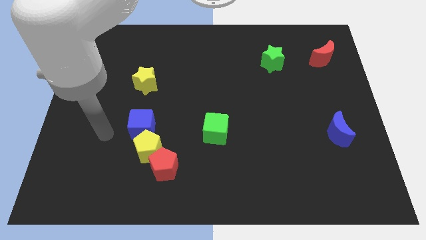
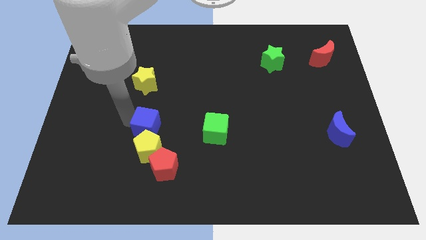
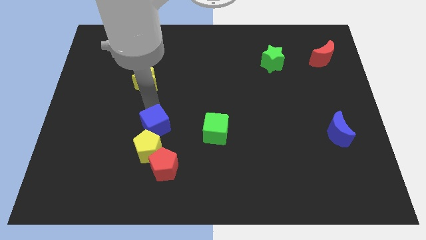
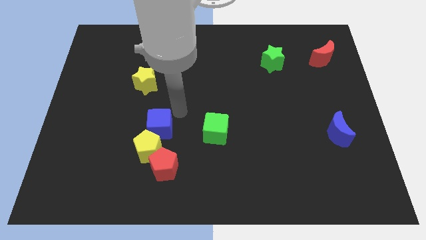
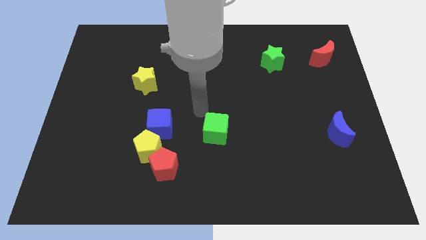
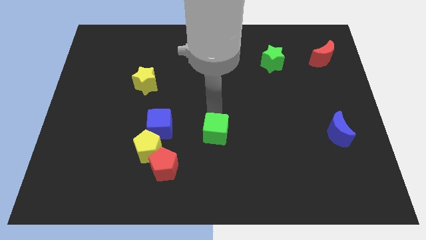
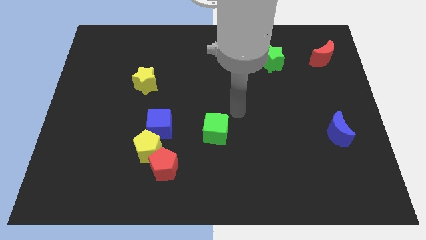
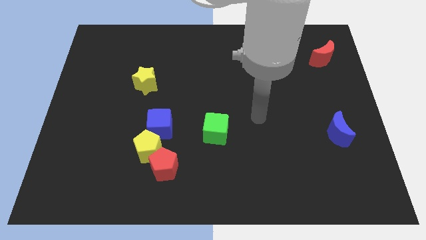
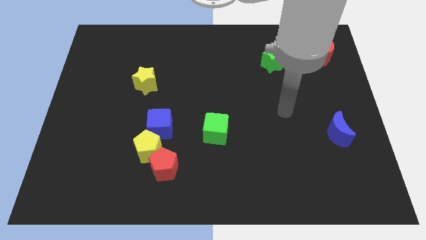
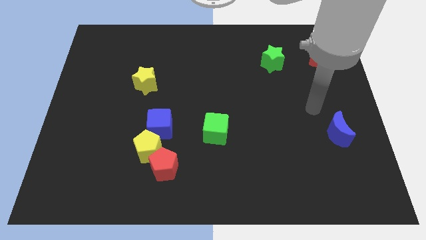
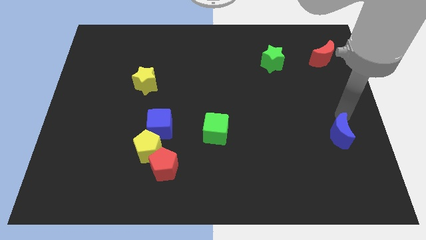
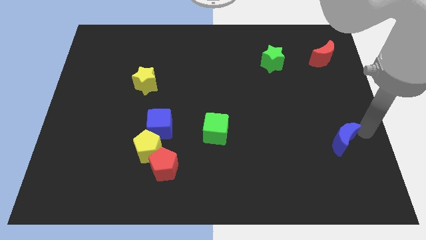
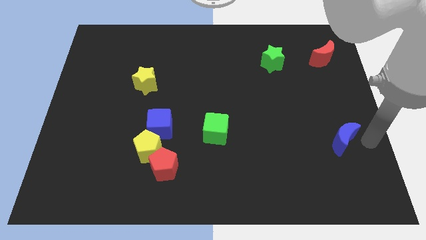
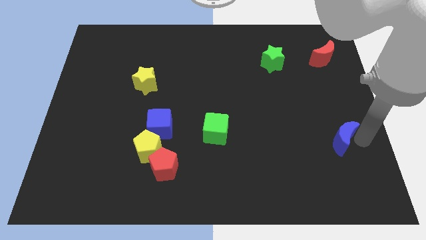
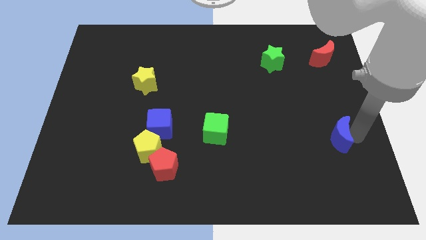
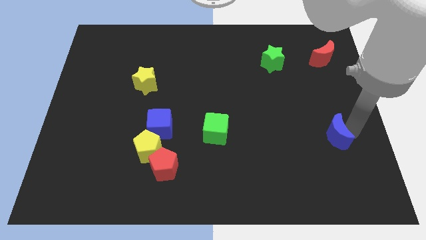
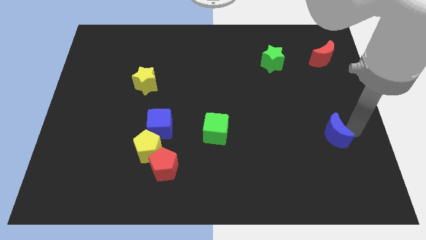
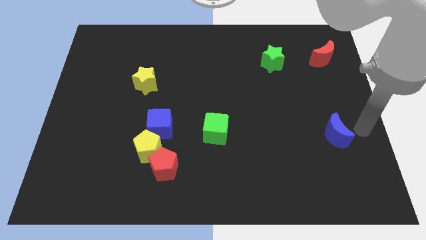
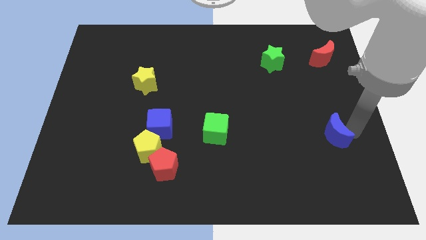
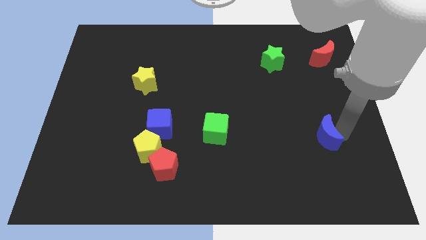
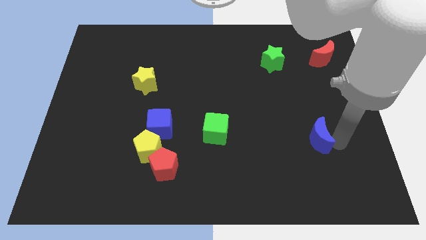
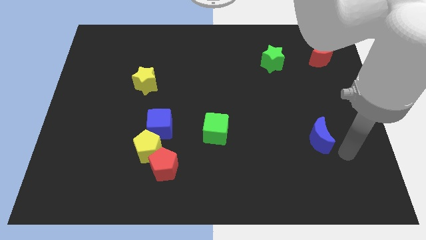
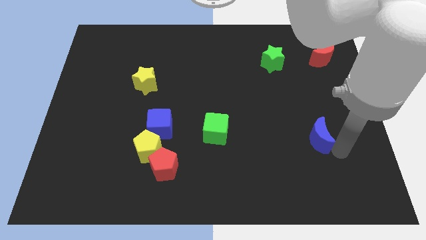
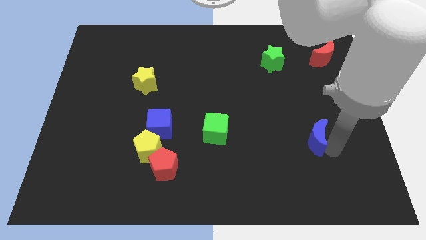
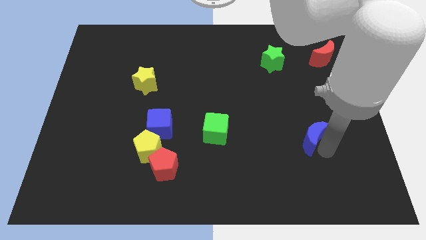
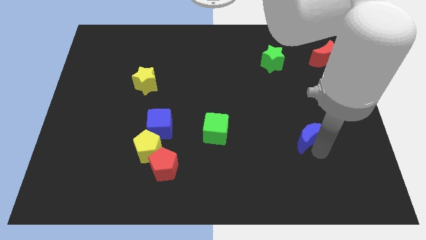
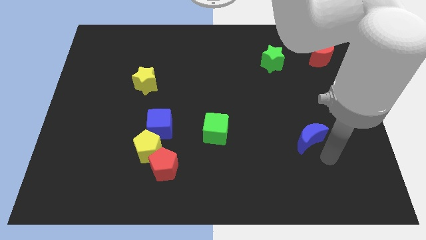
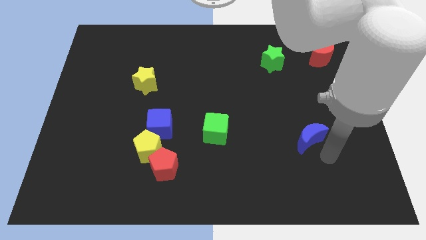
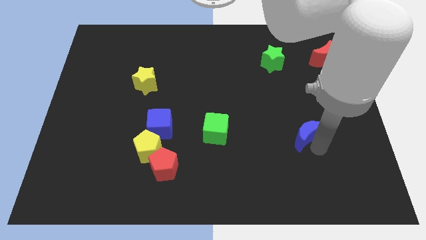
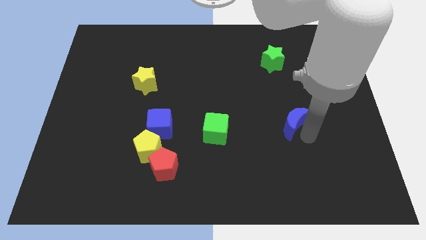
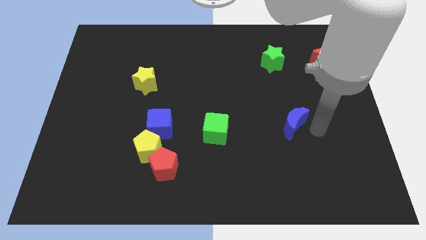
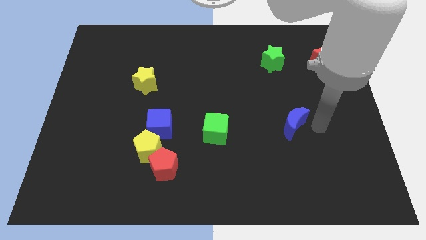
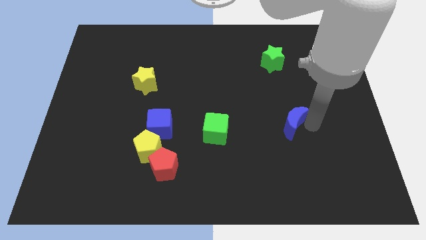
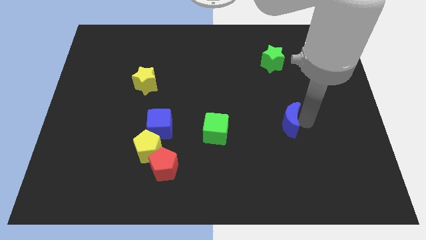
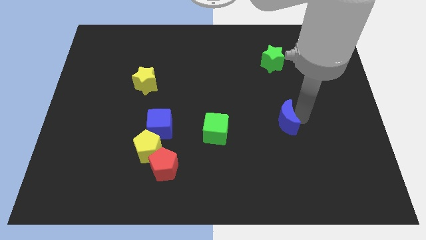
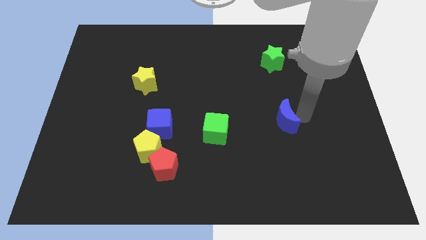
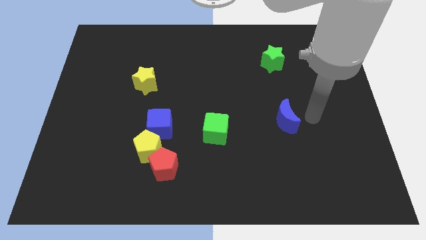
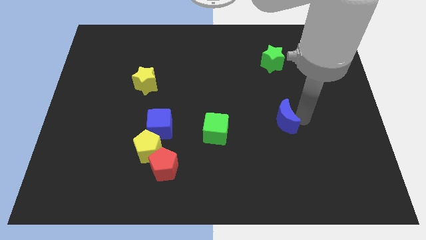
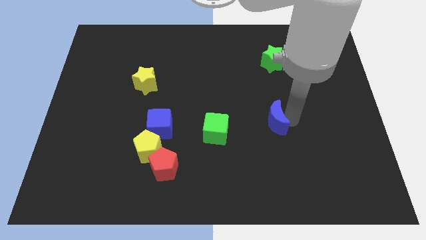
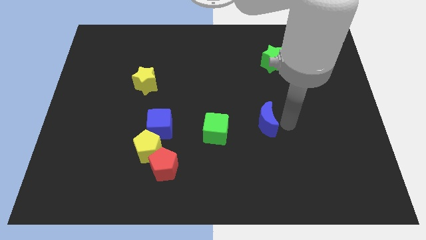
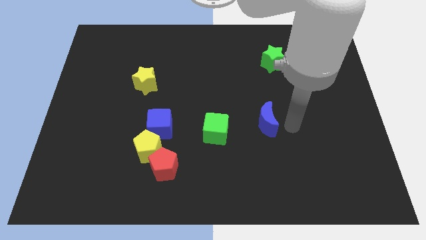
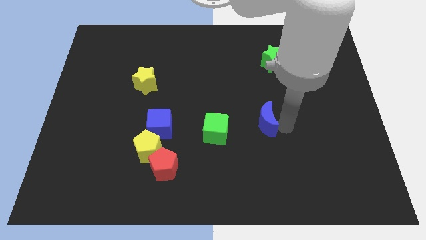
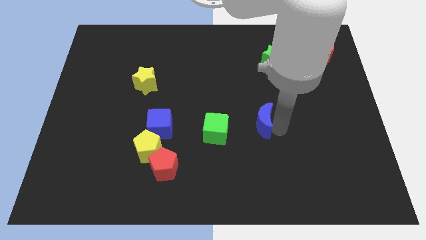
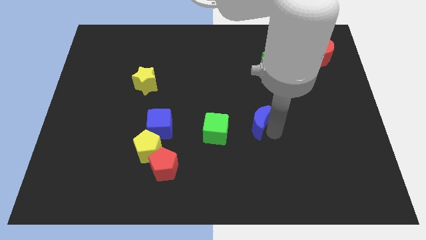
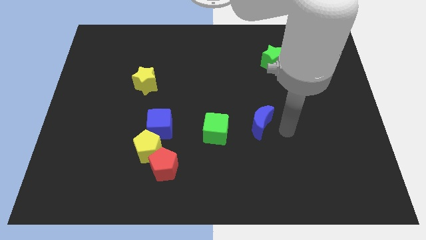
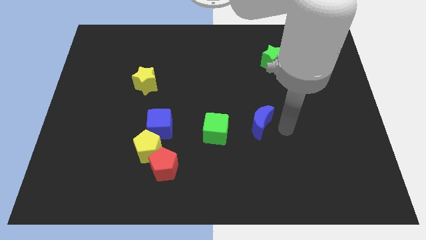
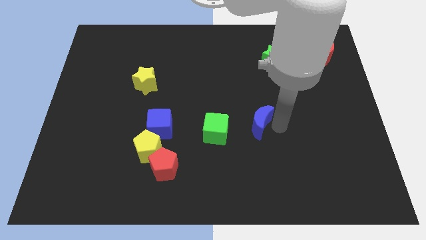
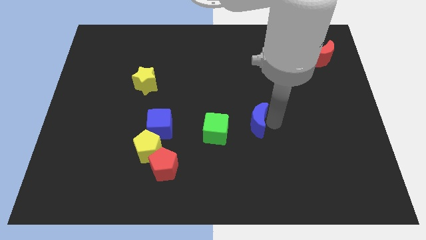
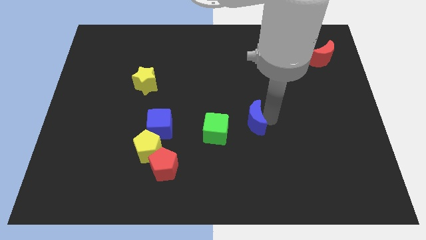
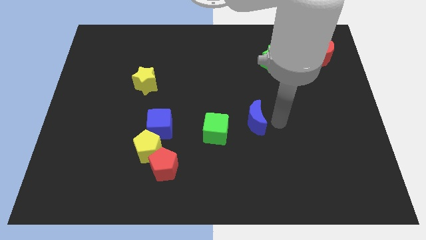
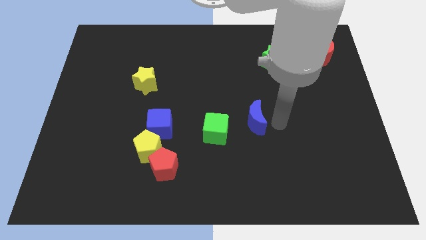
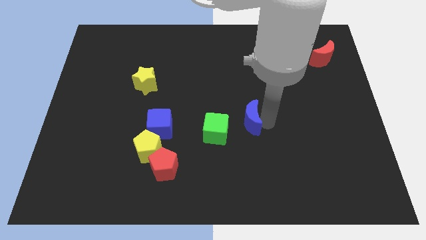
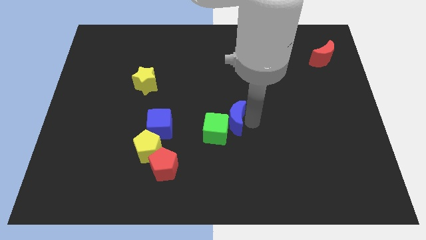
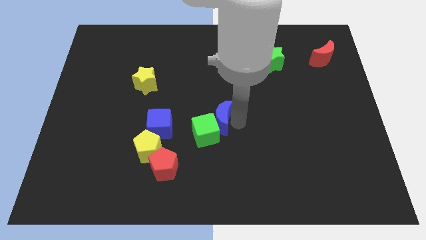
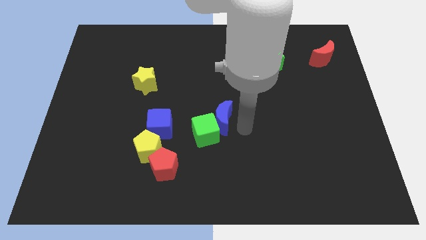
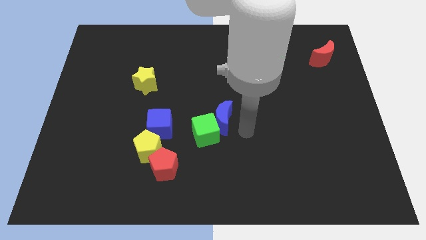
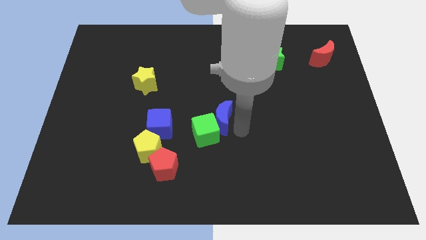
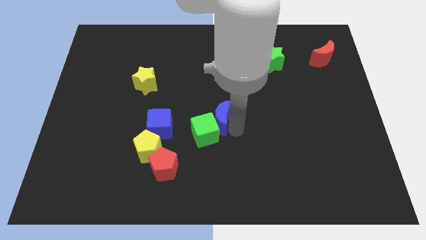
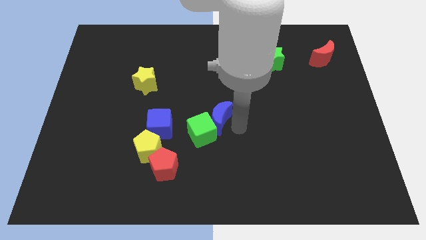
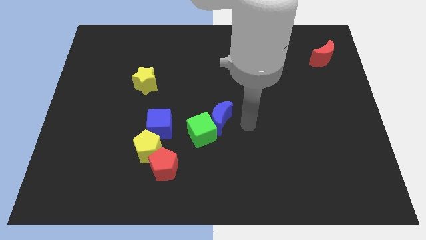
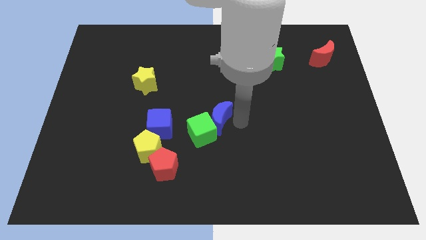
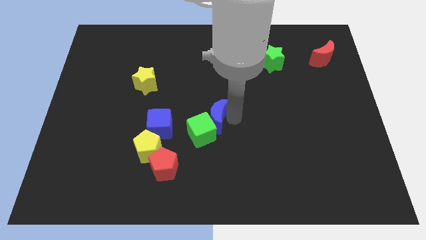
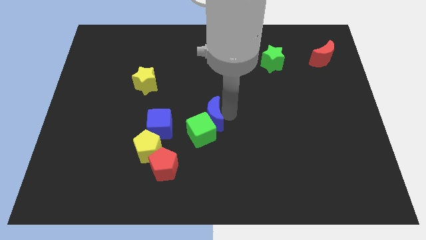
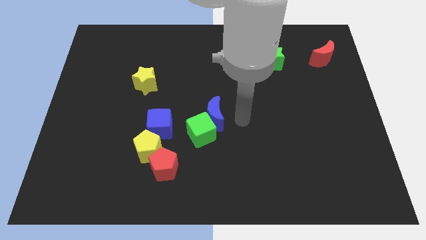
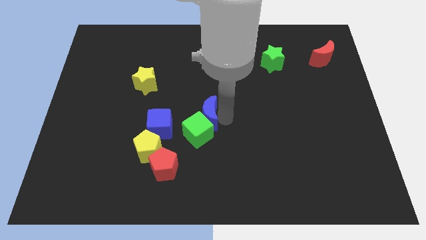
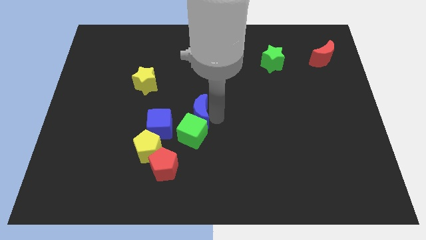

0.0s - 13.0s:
put the blue moon to the top left side of the green cube

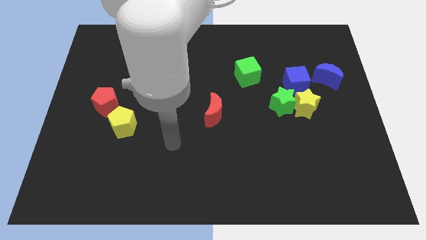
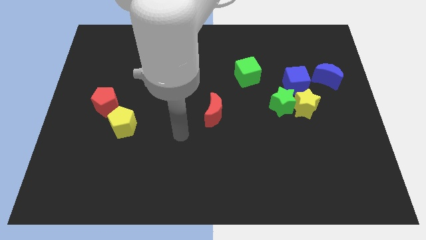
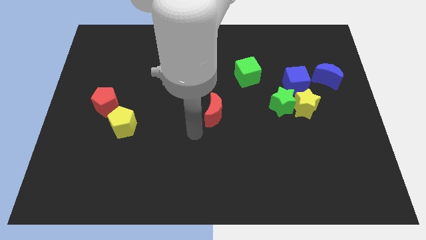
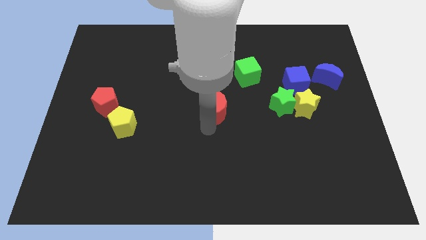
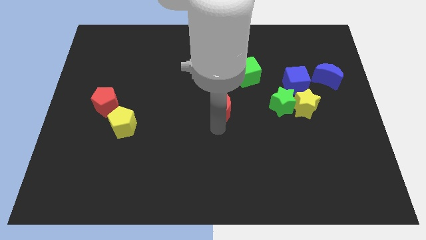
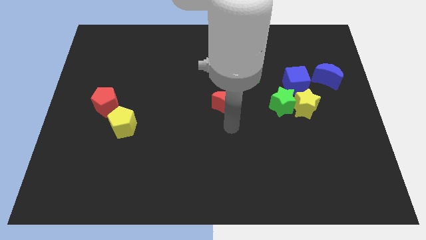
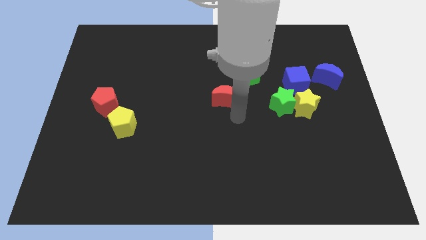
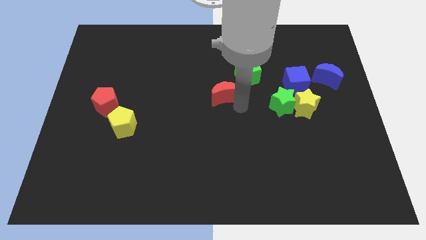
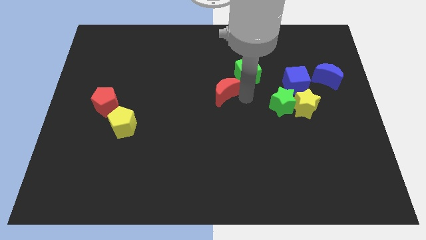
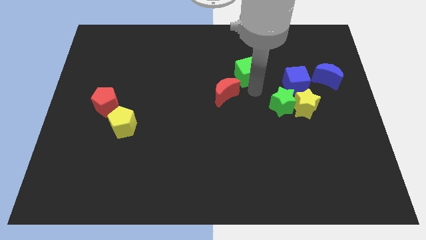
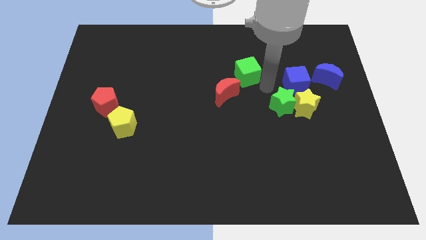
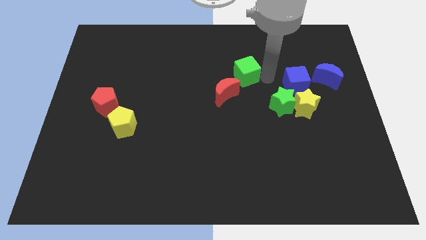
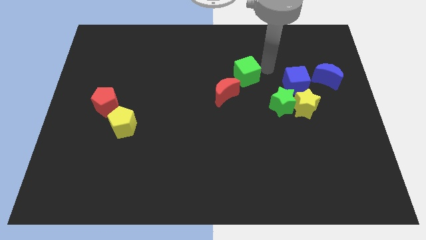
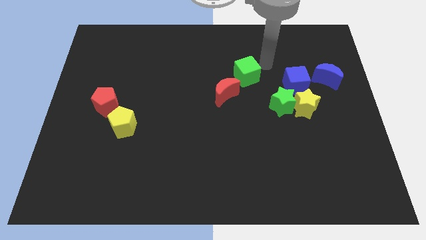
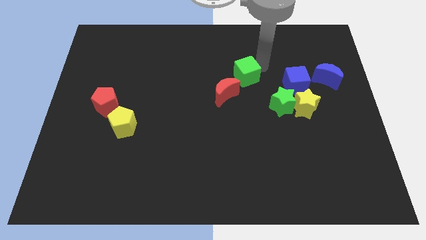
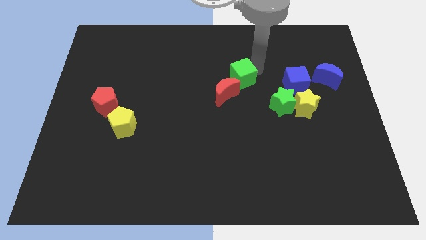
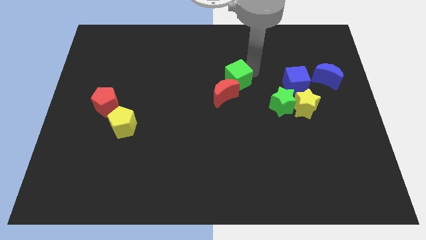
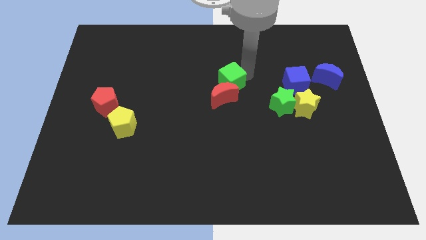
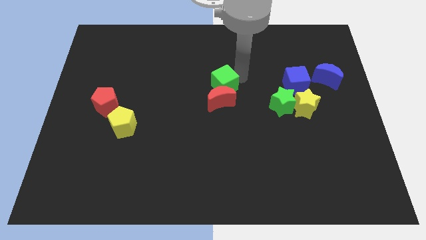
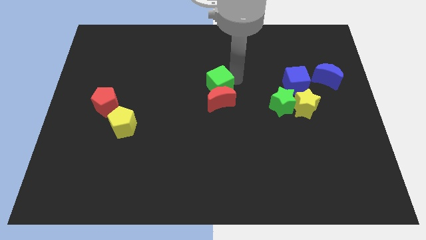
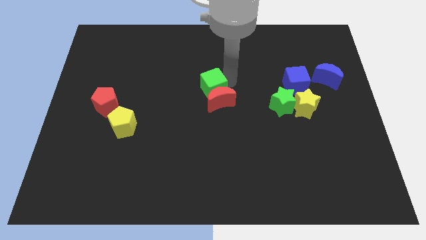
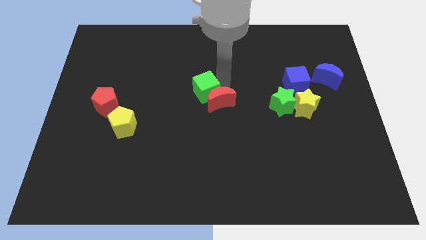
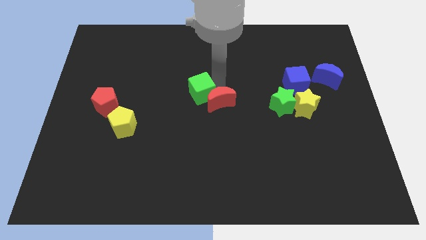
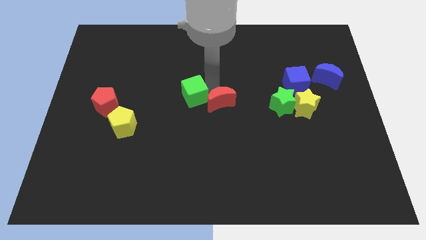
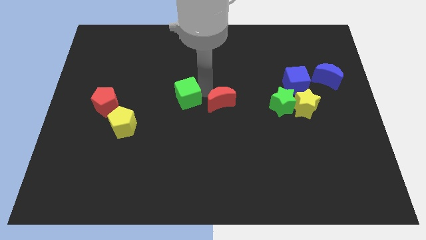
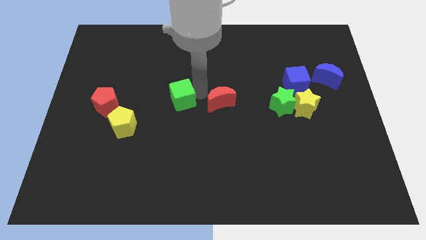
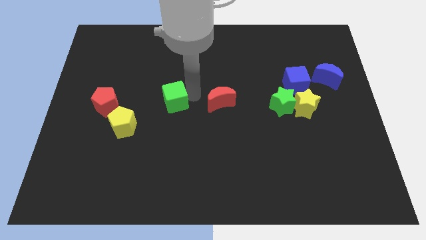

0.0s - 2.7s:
slide the green cube to the right side of the red pentagon
